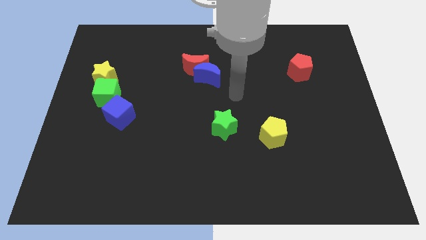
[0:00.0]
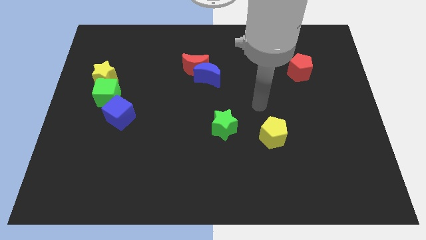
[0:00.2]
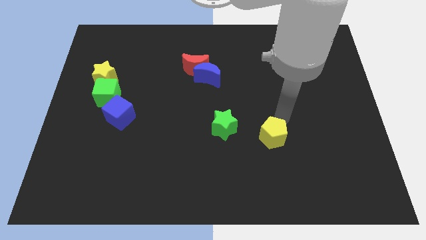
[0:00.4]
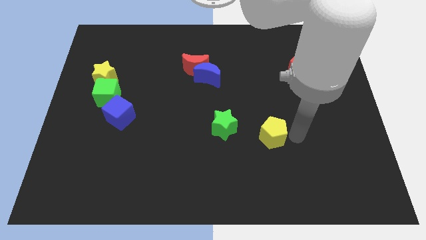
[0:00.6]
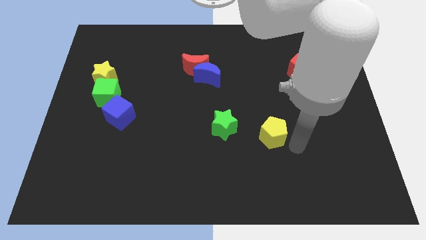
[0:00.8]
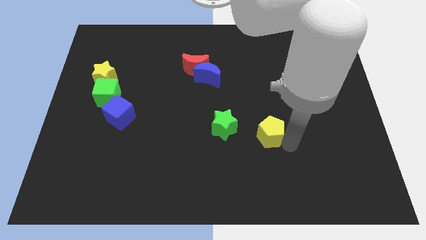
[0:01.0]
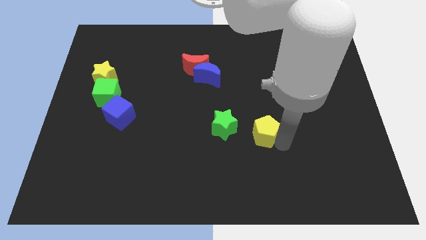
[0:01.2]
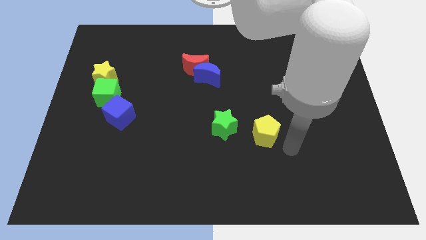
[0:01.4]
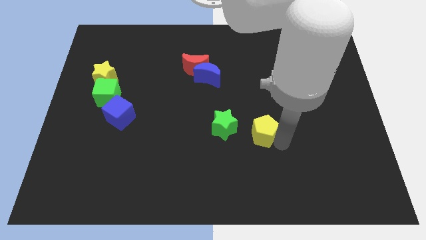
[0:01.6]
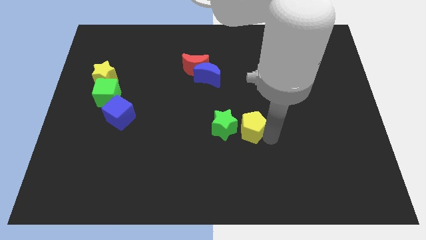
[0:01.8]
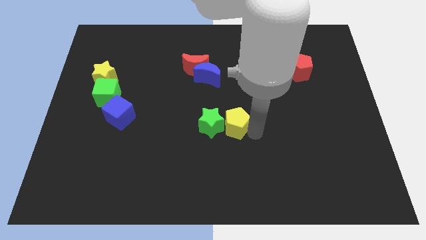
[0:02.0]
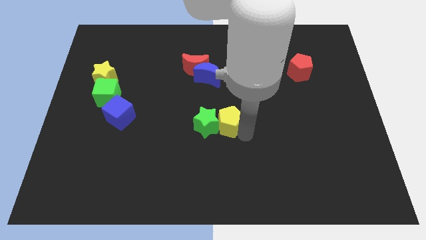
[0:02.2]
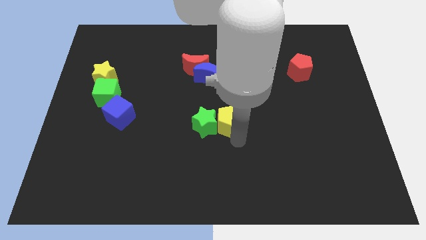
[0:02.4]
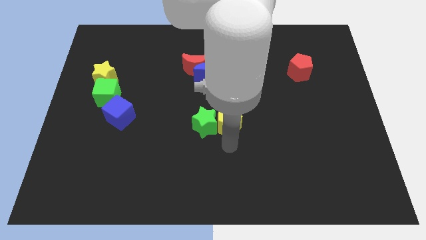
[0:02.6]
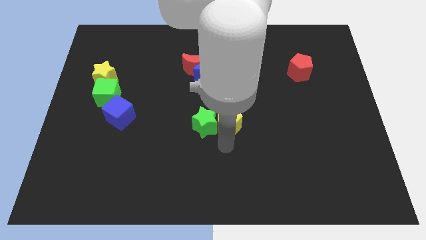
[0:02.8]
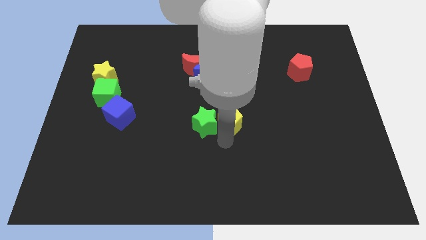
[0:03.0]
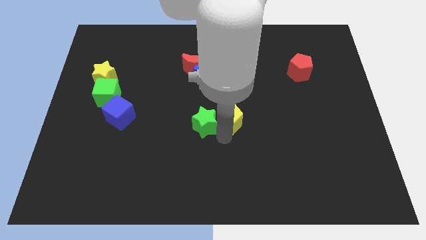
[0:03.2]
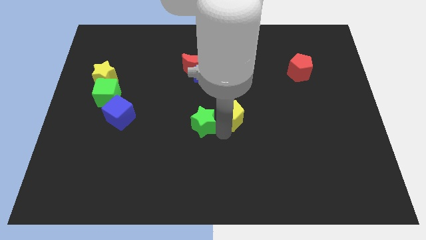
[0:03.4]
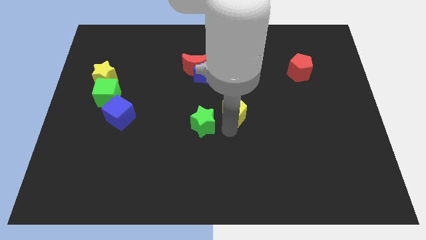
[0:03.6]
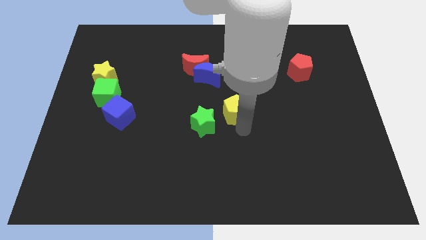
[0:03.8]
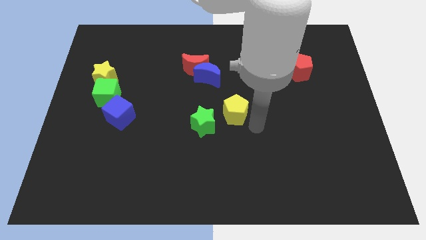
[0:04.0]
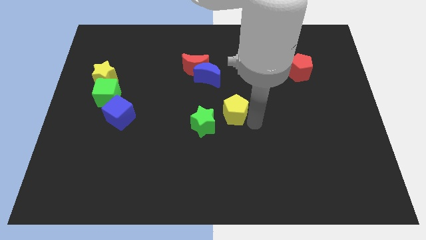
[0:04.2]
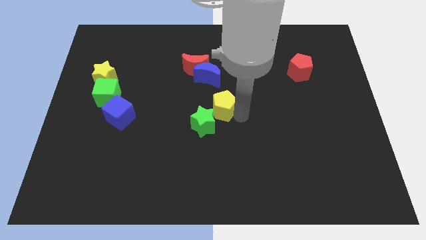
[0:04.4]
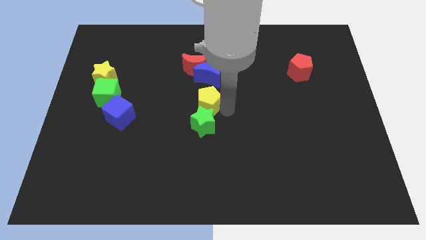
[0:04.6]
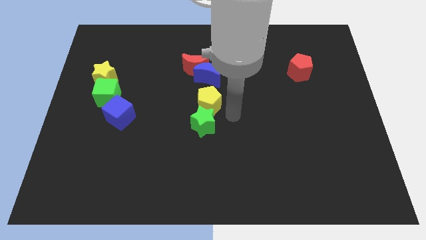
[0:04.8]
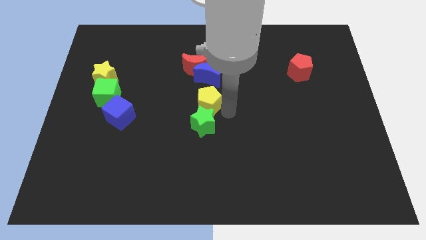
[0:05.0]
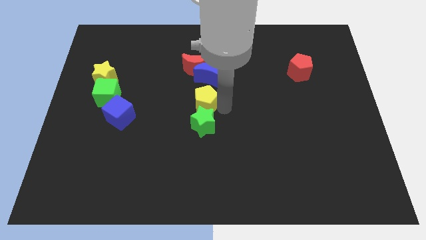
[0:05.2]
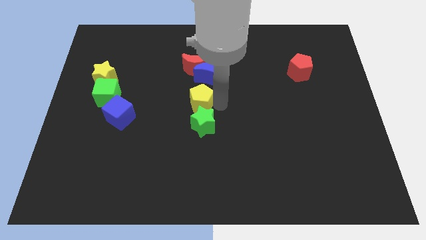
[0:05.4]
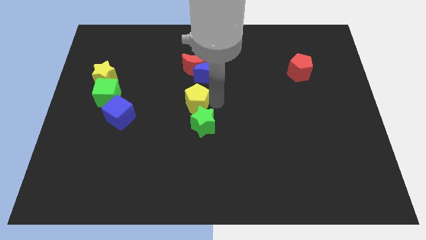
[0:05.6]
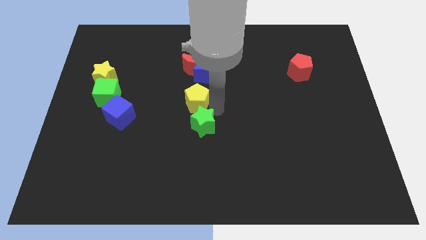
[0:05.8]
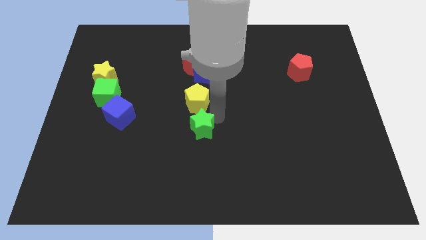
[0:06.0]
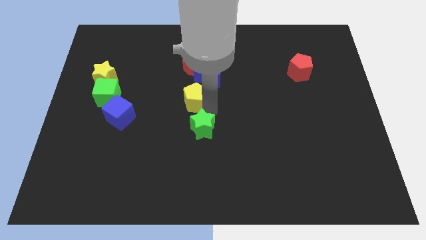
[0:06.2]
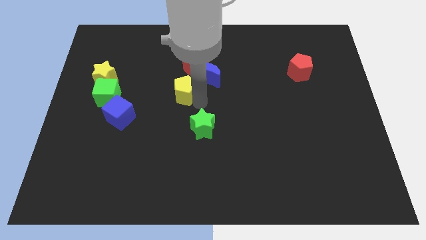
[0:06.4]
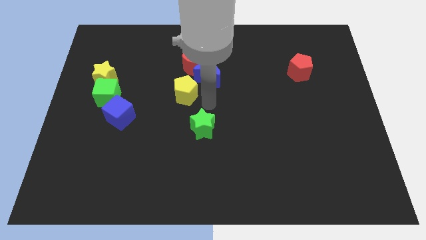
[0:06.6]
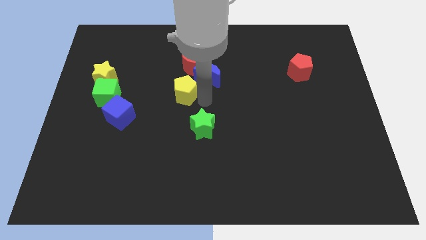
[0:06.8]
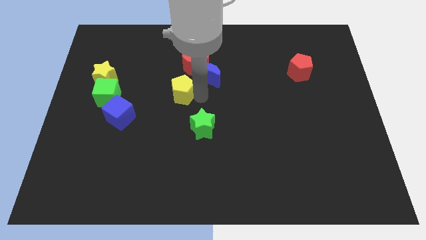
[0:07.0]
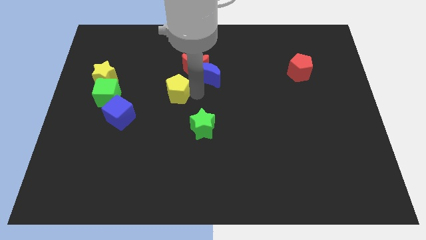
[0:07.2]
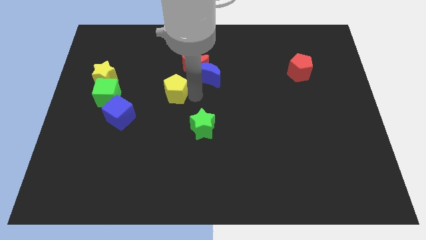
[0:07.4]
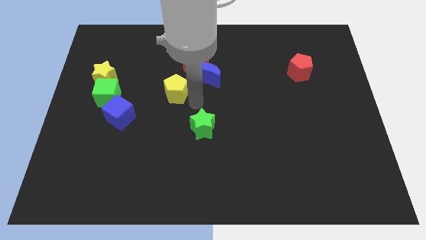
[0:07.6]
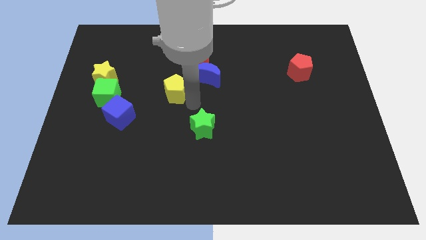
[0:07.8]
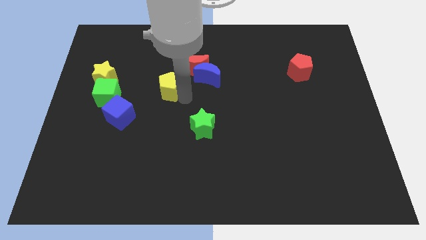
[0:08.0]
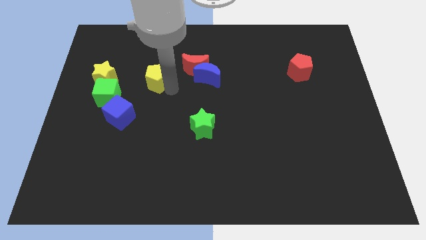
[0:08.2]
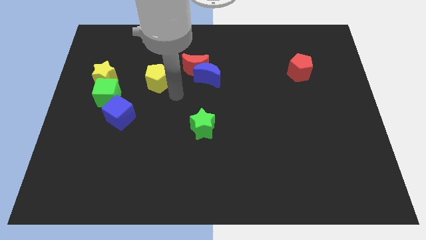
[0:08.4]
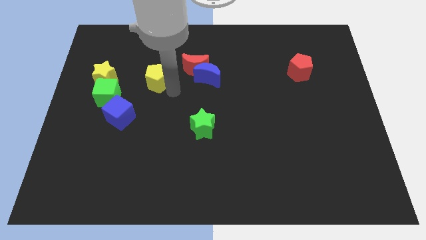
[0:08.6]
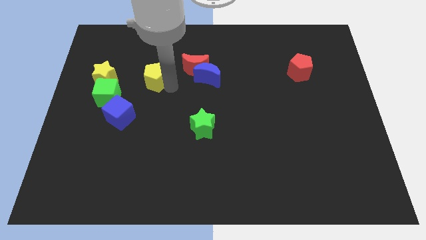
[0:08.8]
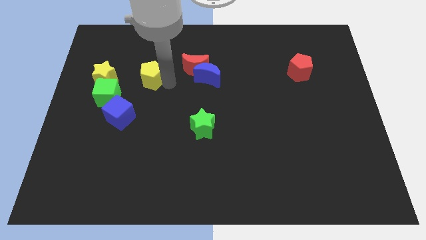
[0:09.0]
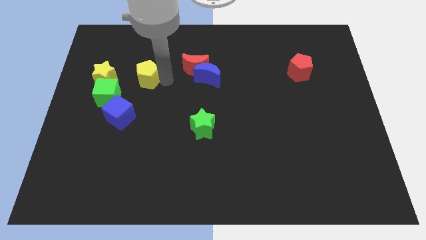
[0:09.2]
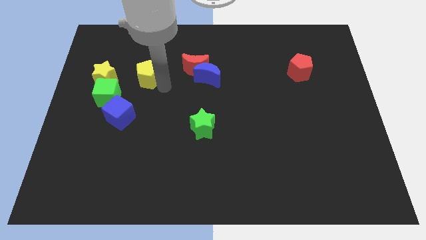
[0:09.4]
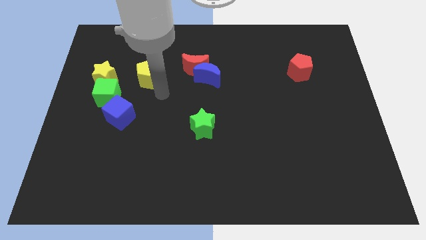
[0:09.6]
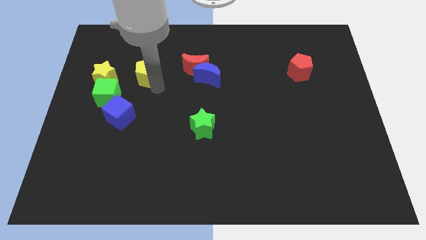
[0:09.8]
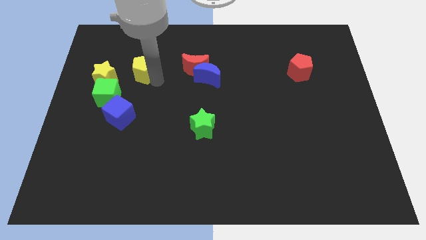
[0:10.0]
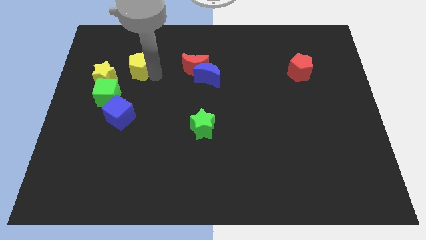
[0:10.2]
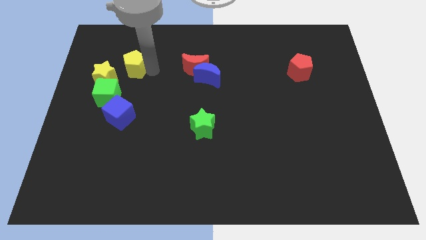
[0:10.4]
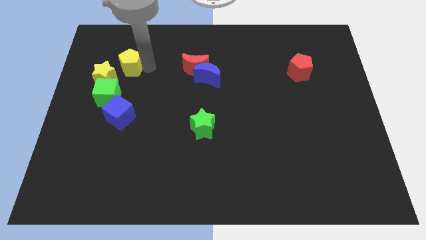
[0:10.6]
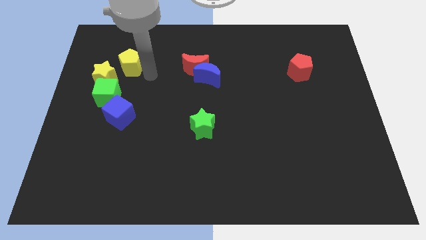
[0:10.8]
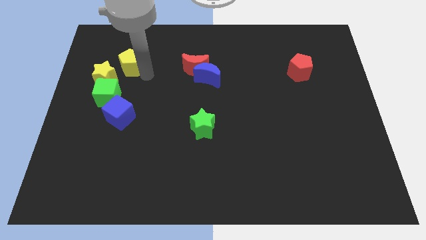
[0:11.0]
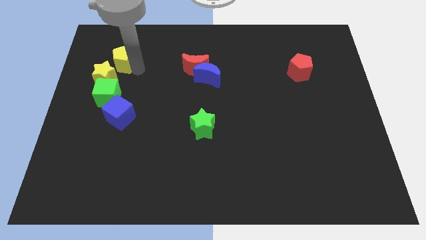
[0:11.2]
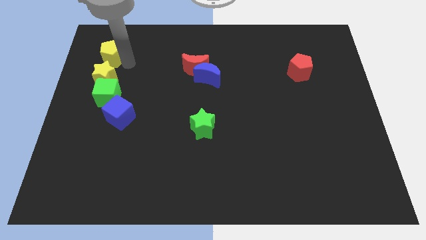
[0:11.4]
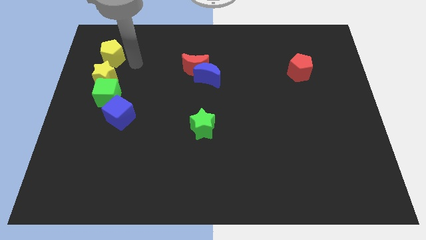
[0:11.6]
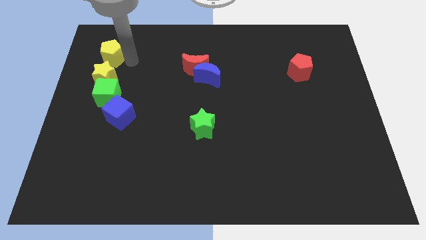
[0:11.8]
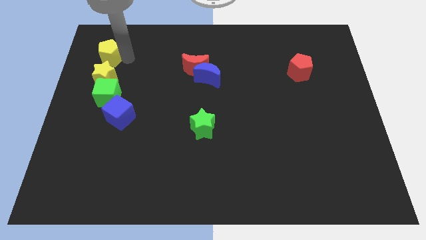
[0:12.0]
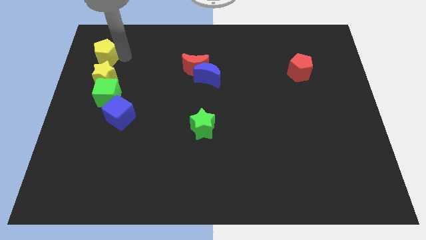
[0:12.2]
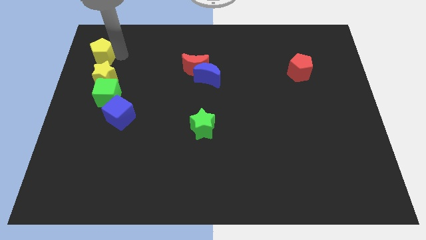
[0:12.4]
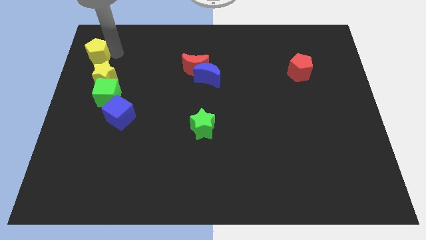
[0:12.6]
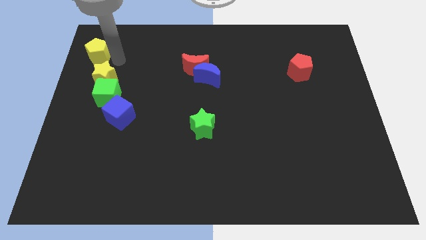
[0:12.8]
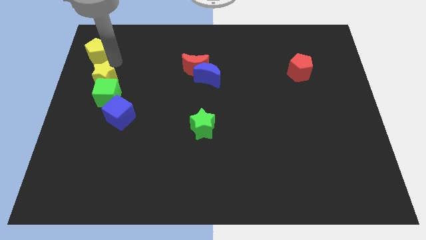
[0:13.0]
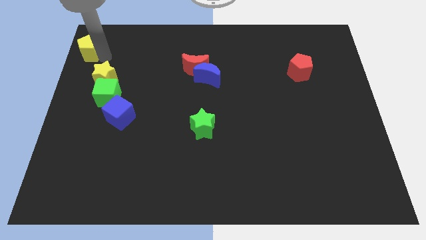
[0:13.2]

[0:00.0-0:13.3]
move the yellow pentagon to the upper left corner
